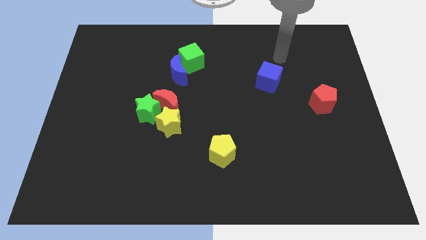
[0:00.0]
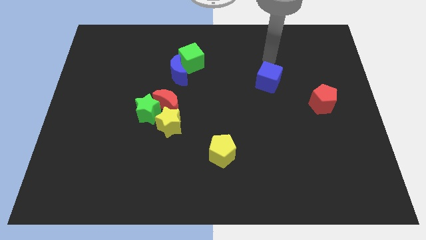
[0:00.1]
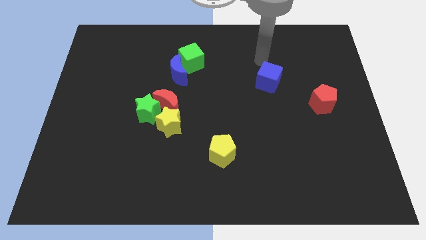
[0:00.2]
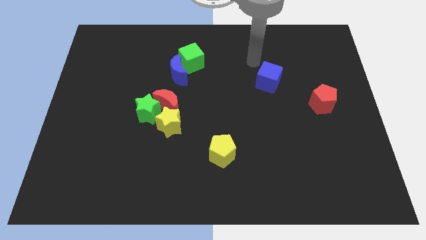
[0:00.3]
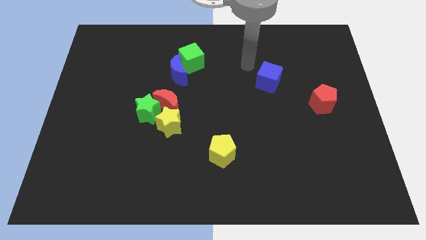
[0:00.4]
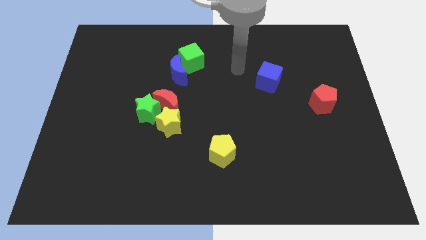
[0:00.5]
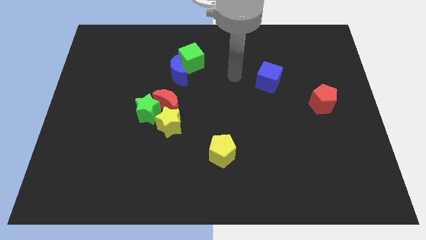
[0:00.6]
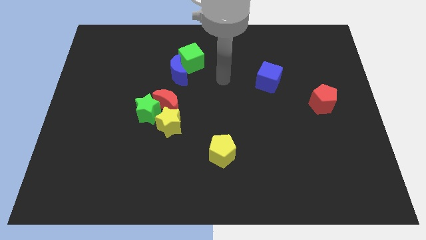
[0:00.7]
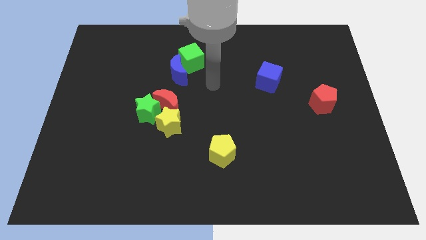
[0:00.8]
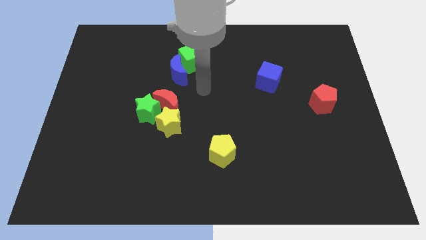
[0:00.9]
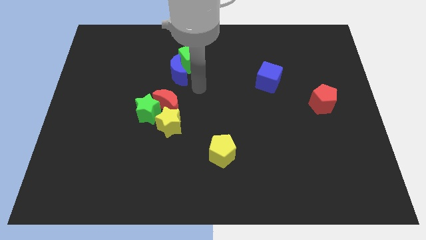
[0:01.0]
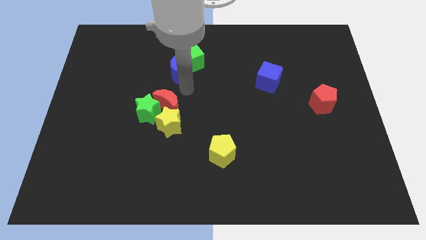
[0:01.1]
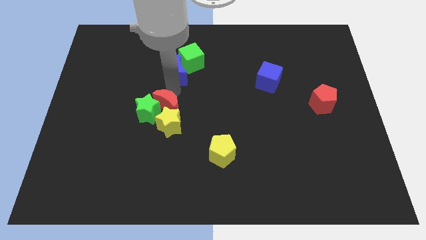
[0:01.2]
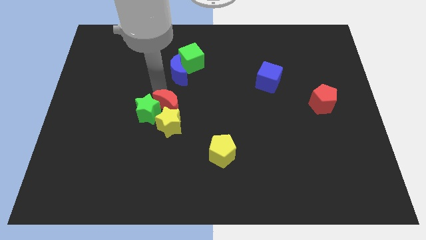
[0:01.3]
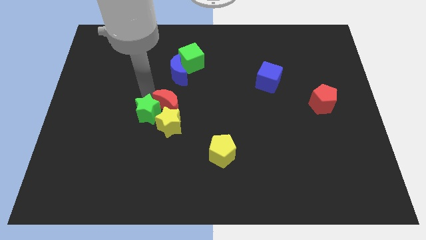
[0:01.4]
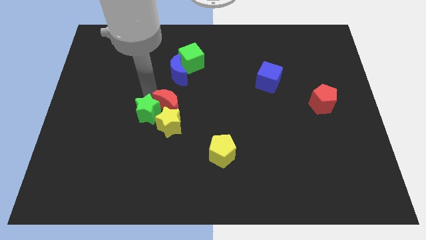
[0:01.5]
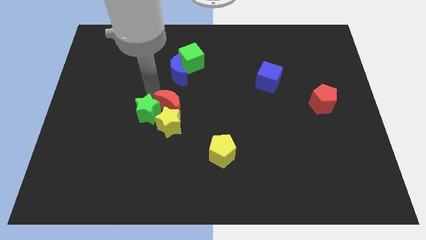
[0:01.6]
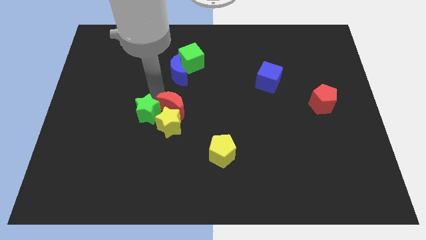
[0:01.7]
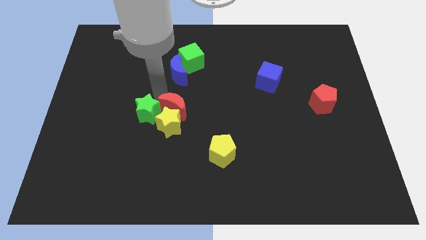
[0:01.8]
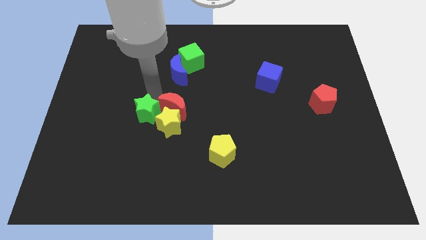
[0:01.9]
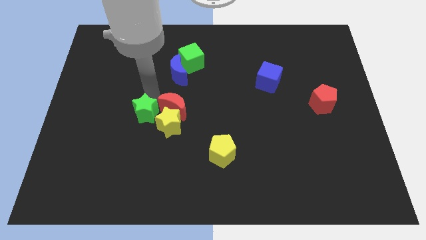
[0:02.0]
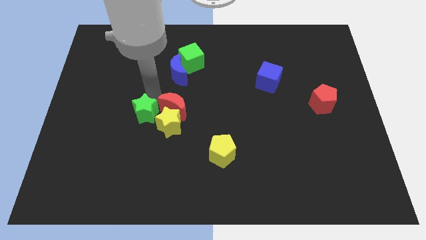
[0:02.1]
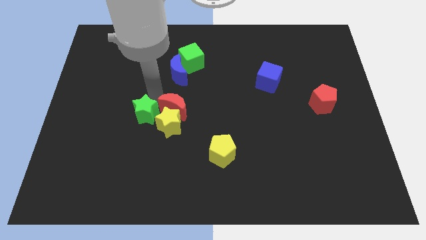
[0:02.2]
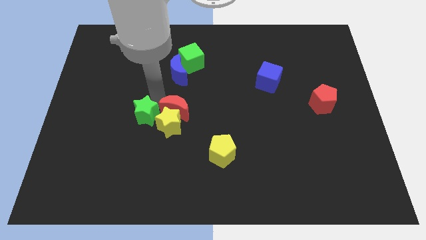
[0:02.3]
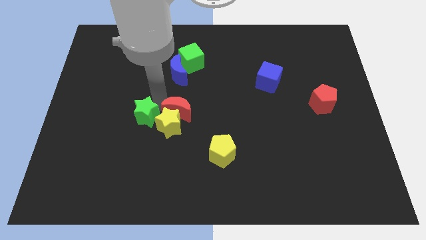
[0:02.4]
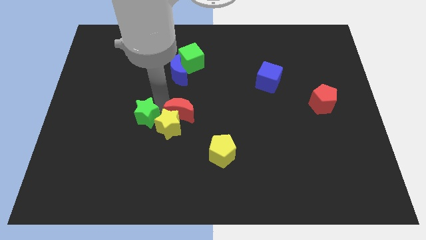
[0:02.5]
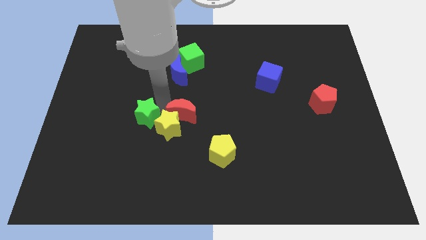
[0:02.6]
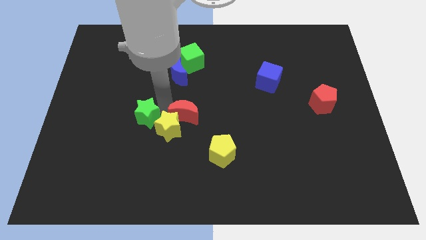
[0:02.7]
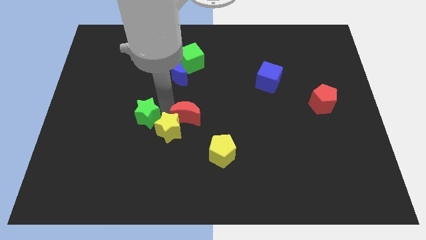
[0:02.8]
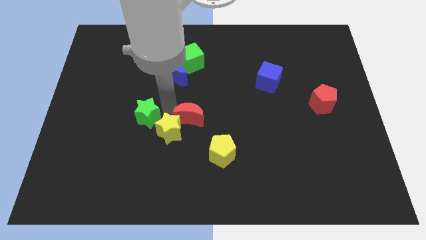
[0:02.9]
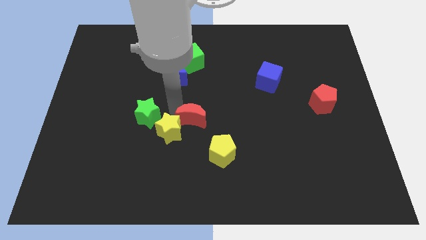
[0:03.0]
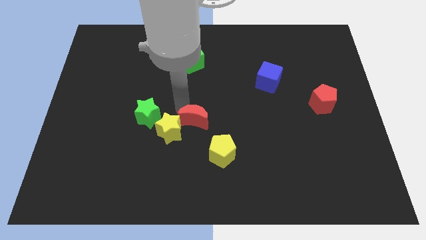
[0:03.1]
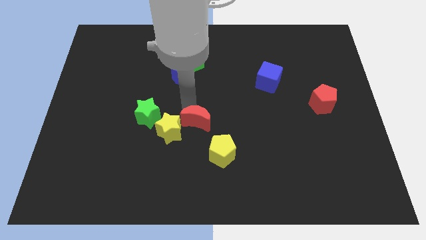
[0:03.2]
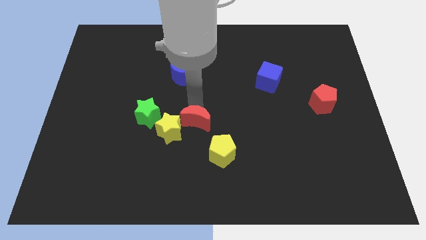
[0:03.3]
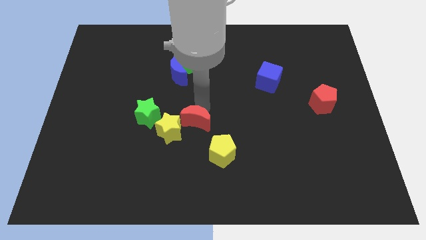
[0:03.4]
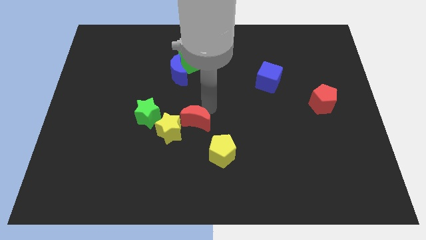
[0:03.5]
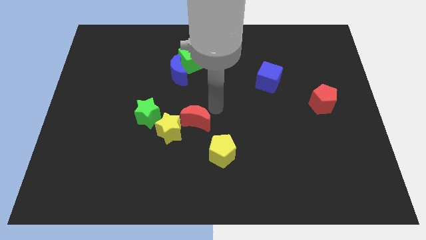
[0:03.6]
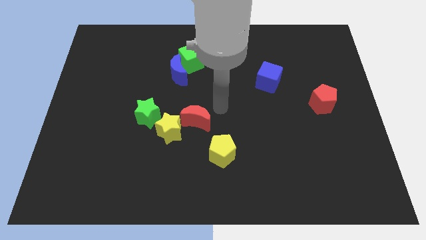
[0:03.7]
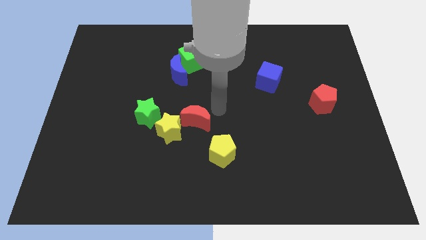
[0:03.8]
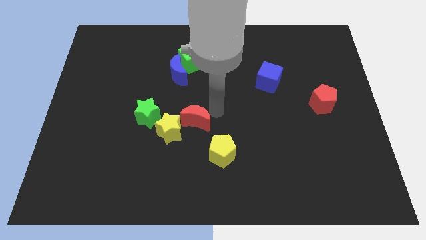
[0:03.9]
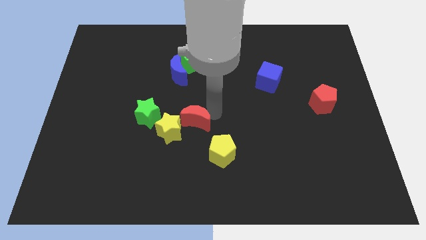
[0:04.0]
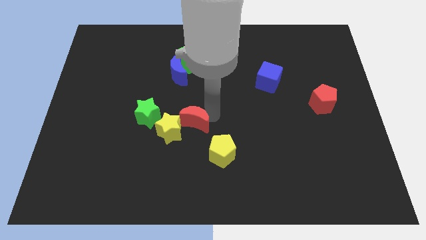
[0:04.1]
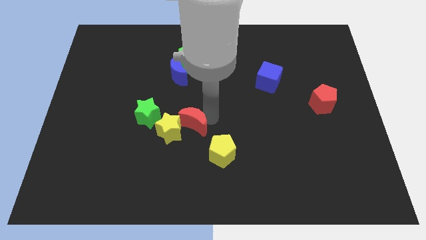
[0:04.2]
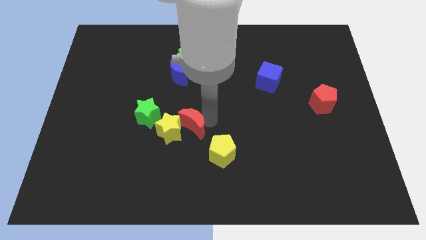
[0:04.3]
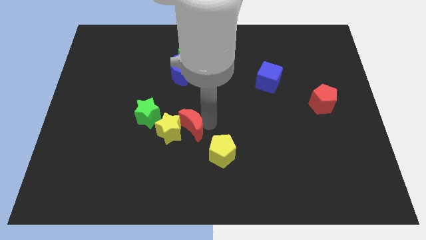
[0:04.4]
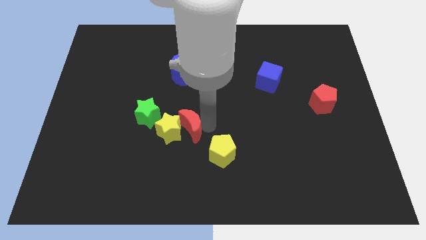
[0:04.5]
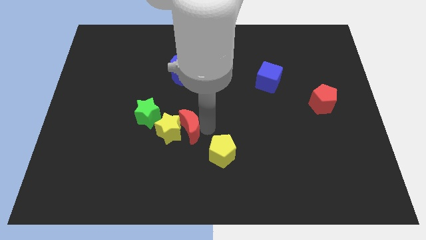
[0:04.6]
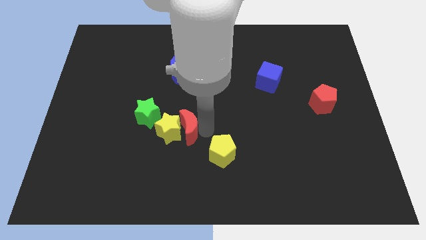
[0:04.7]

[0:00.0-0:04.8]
slide the red moon diagonally down and to the right of the green star

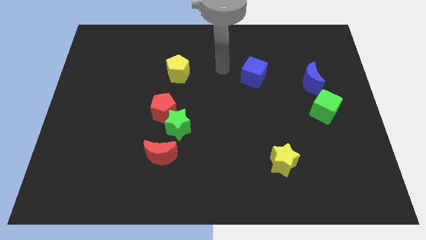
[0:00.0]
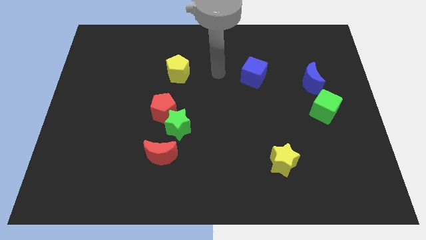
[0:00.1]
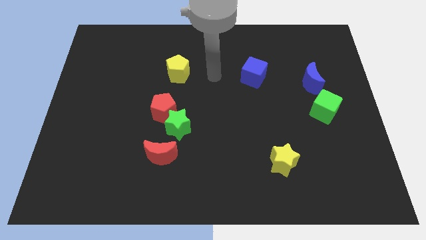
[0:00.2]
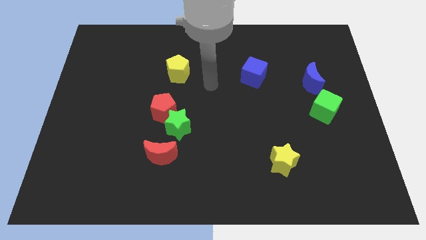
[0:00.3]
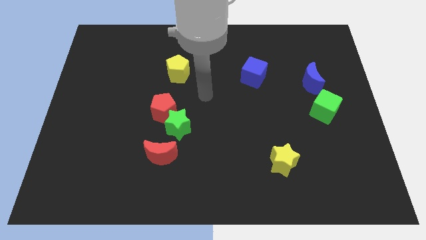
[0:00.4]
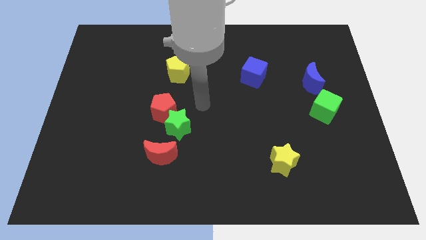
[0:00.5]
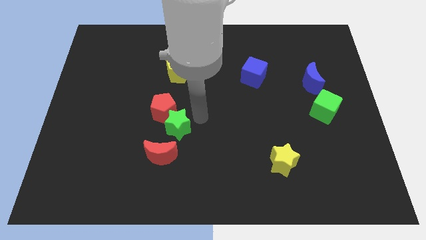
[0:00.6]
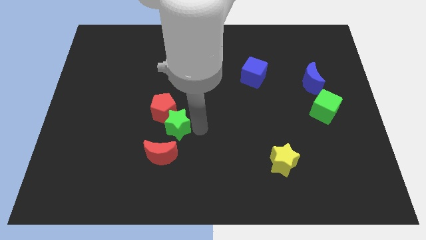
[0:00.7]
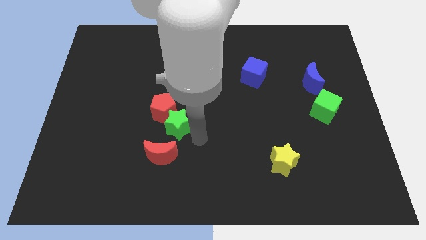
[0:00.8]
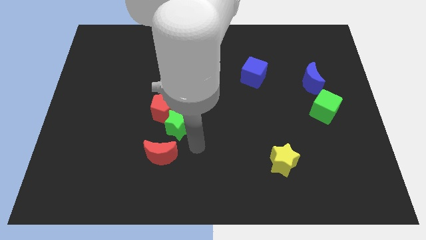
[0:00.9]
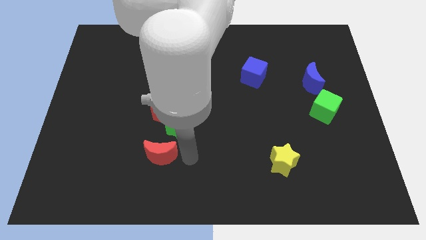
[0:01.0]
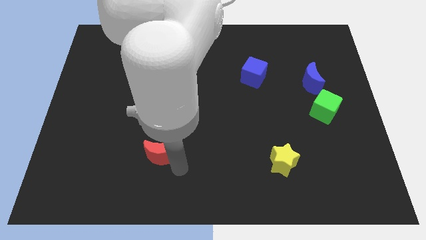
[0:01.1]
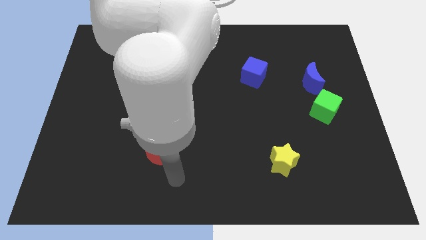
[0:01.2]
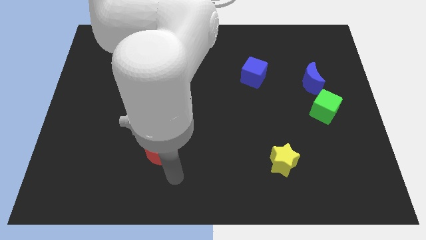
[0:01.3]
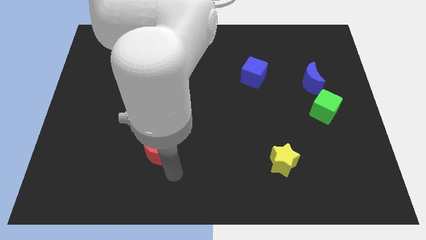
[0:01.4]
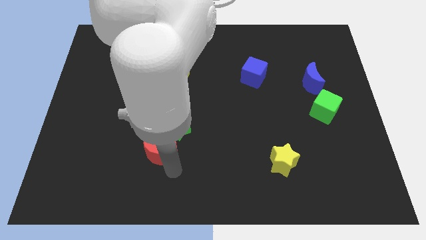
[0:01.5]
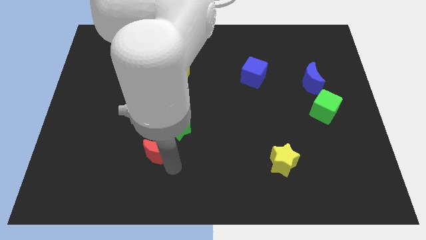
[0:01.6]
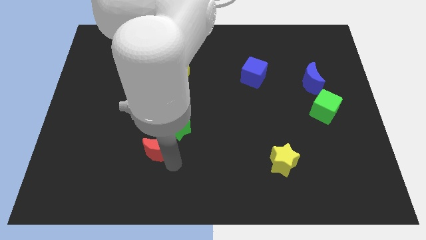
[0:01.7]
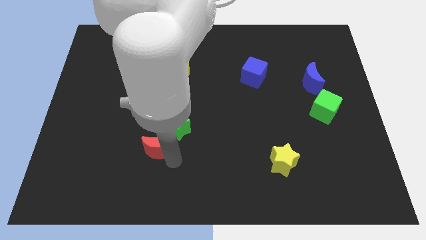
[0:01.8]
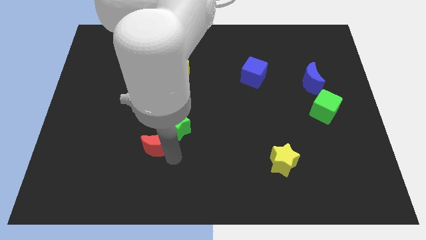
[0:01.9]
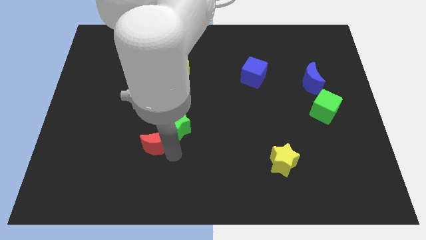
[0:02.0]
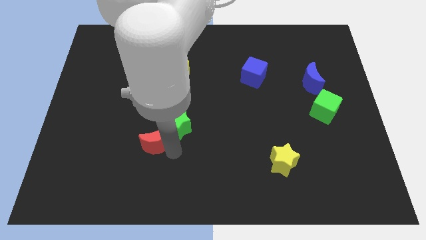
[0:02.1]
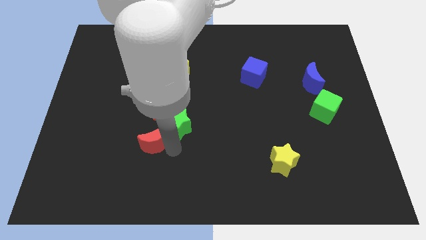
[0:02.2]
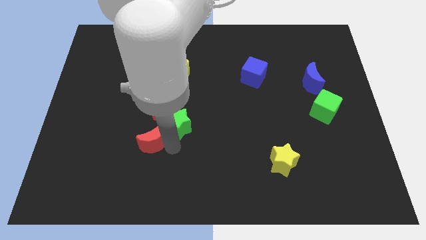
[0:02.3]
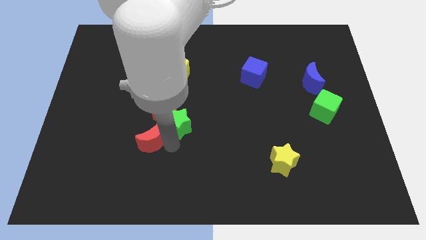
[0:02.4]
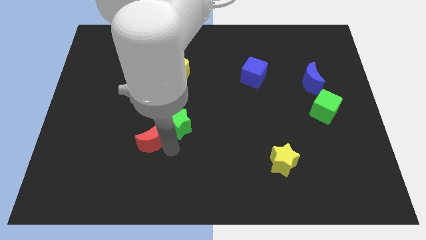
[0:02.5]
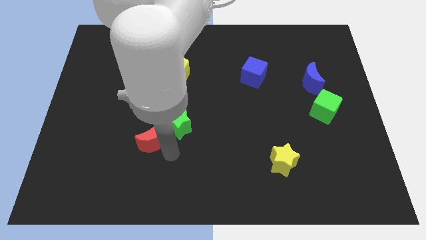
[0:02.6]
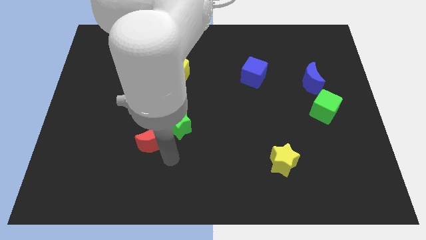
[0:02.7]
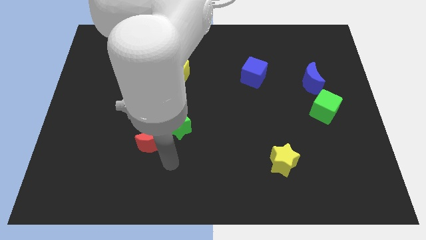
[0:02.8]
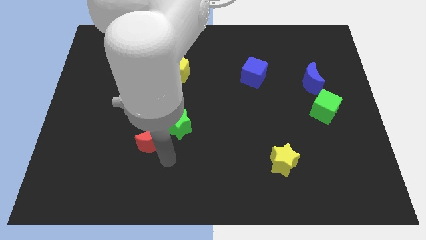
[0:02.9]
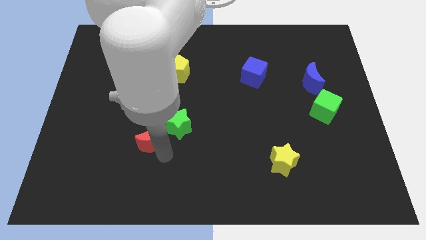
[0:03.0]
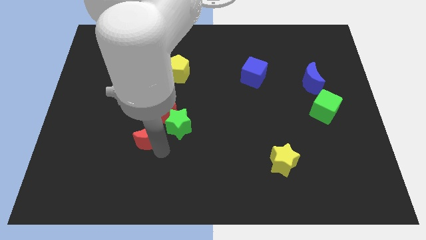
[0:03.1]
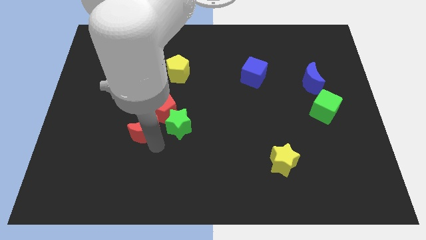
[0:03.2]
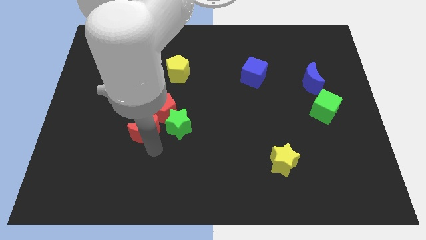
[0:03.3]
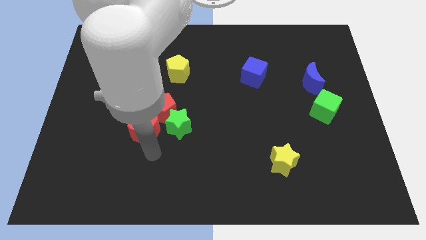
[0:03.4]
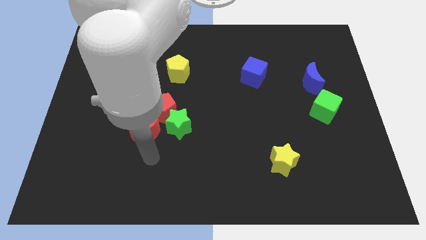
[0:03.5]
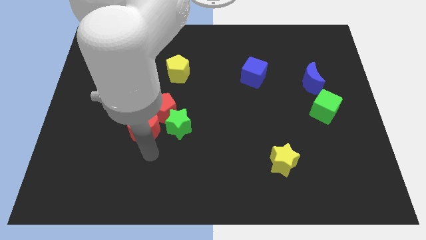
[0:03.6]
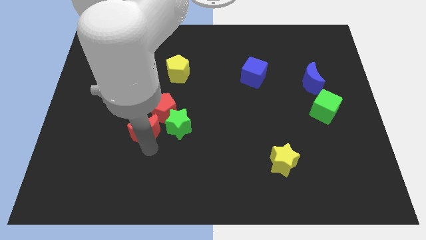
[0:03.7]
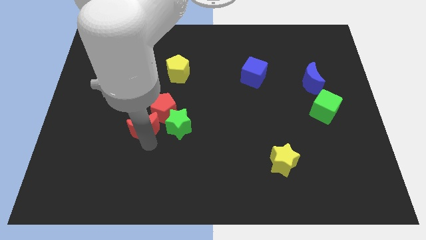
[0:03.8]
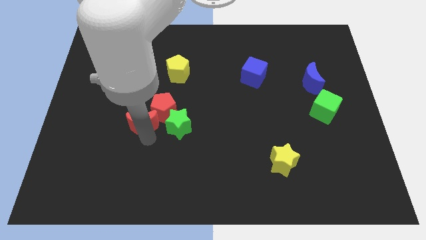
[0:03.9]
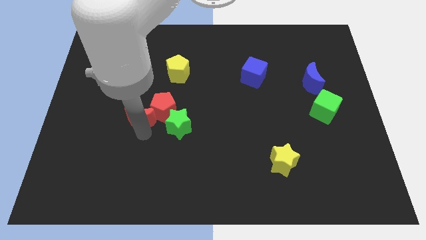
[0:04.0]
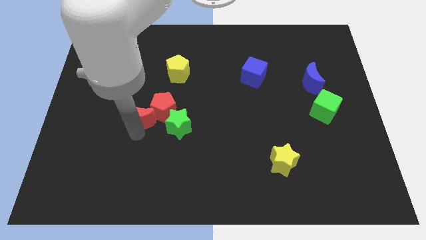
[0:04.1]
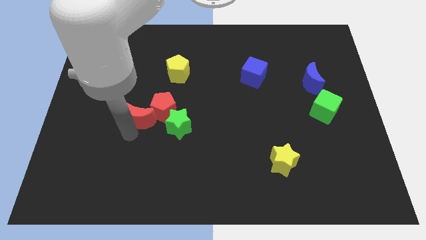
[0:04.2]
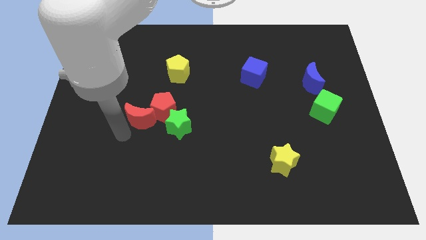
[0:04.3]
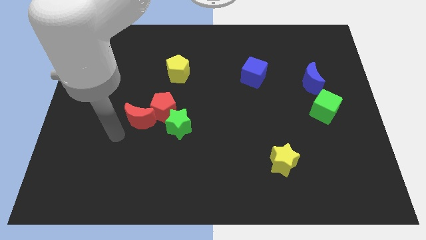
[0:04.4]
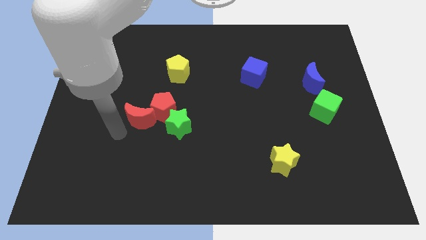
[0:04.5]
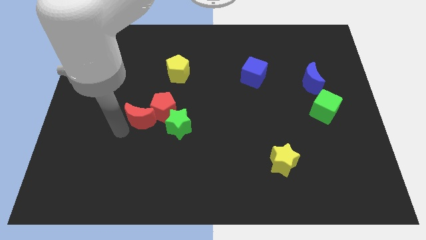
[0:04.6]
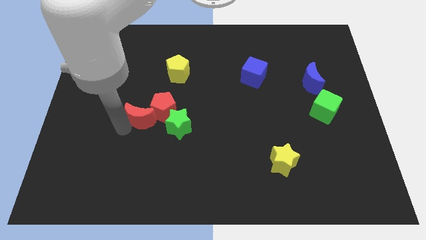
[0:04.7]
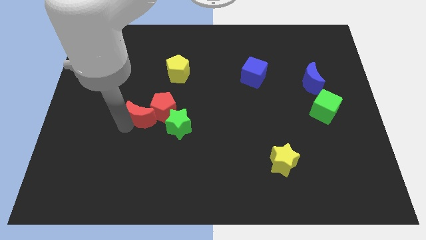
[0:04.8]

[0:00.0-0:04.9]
slide the red moon to the top left side of the green star
